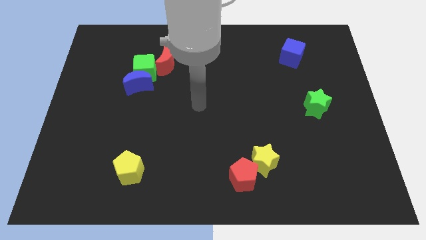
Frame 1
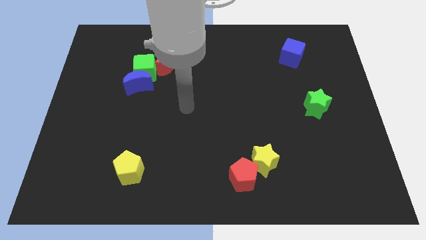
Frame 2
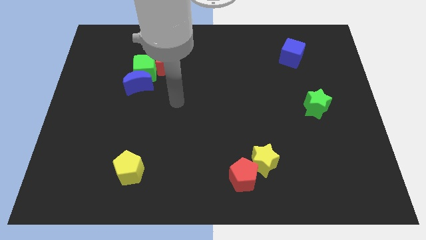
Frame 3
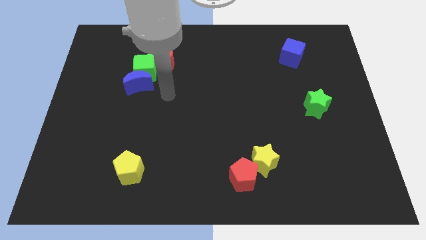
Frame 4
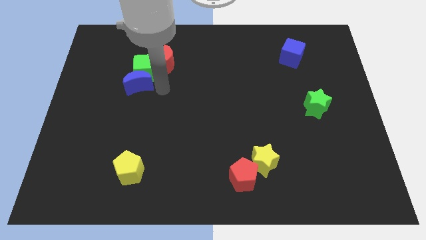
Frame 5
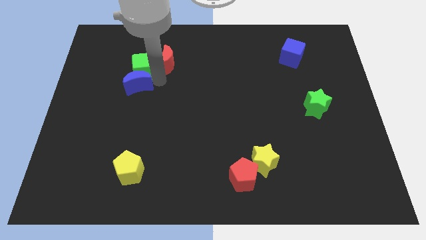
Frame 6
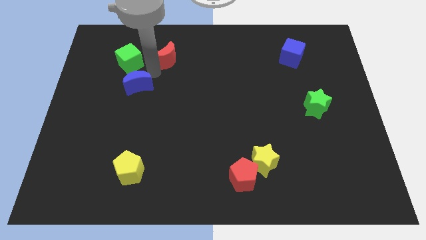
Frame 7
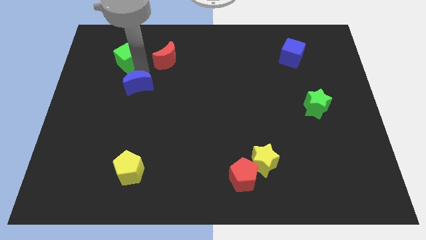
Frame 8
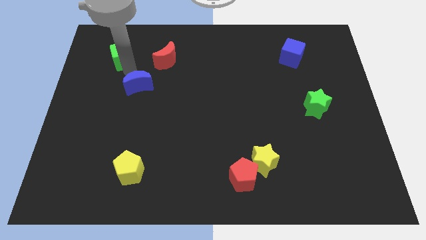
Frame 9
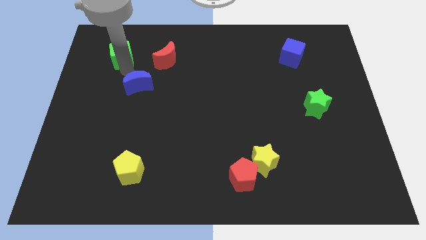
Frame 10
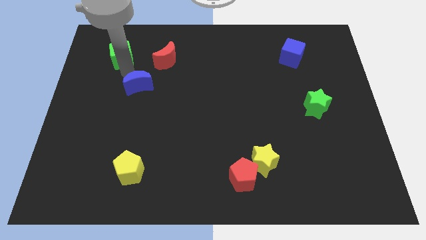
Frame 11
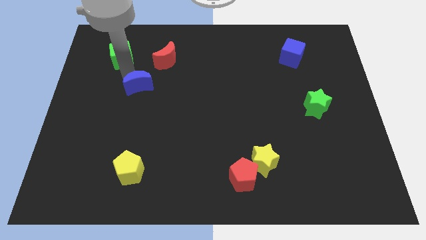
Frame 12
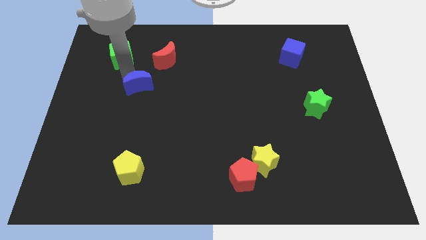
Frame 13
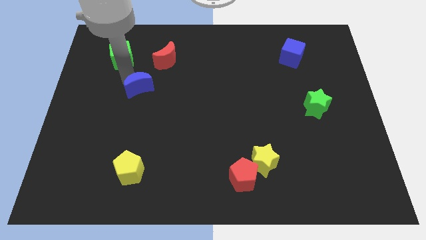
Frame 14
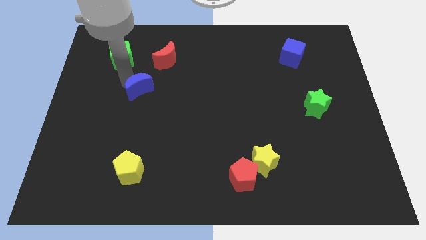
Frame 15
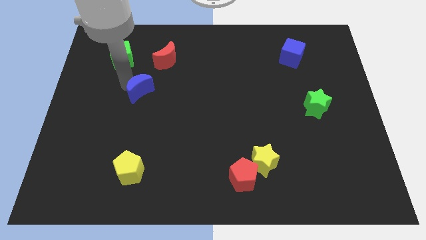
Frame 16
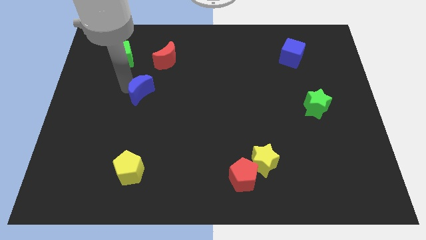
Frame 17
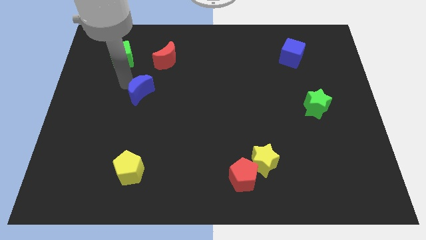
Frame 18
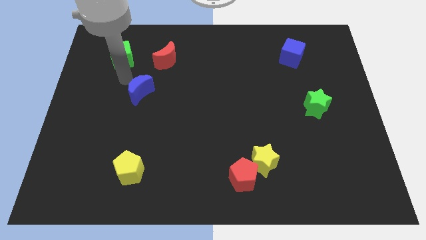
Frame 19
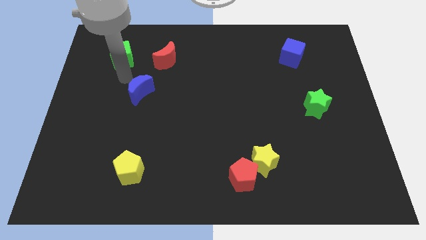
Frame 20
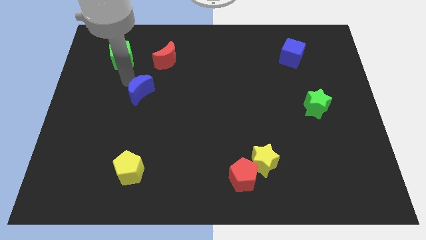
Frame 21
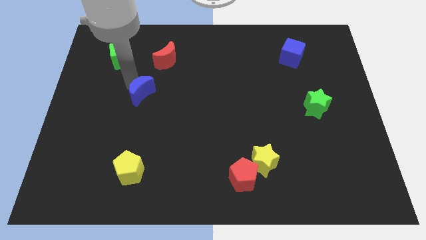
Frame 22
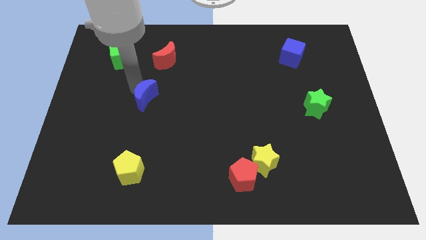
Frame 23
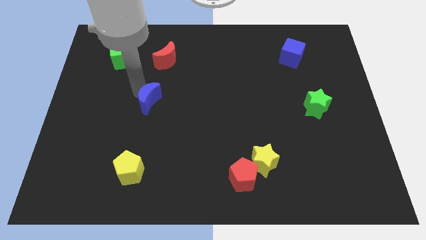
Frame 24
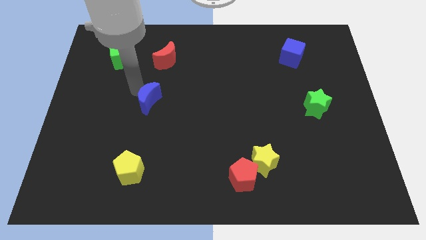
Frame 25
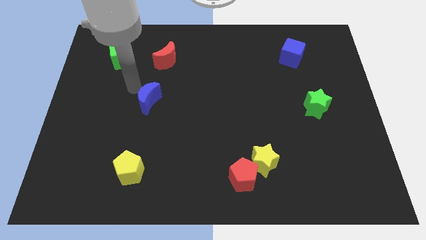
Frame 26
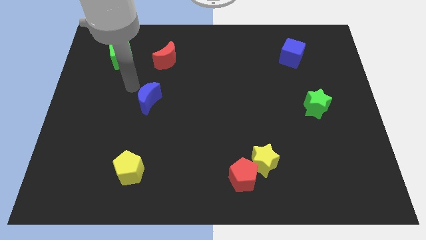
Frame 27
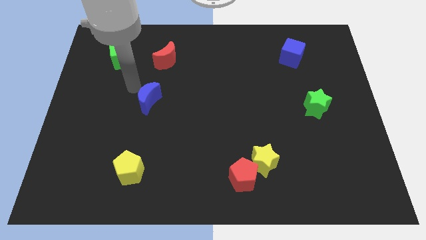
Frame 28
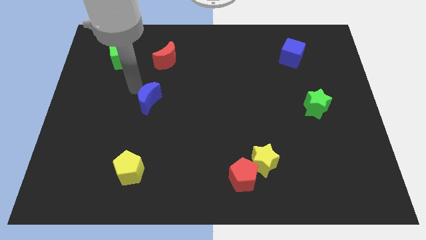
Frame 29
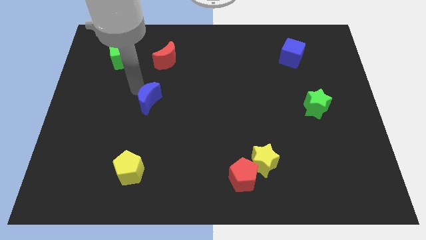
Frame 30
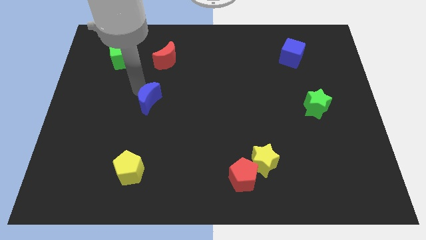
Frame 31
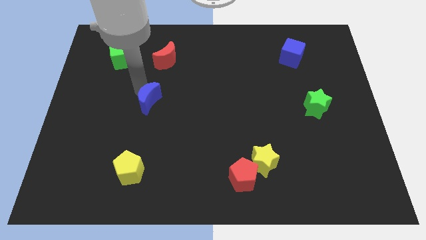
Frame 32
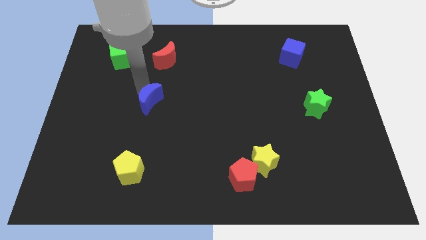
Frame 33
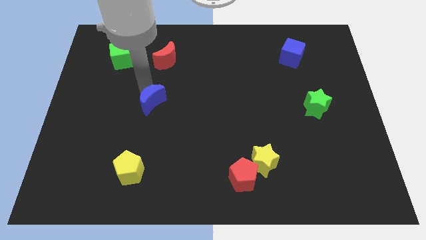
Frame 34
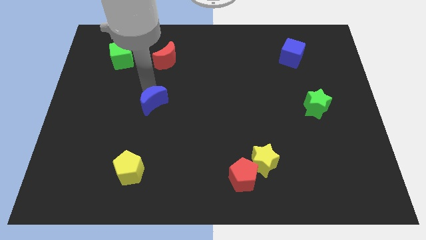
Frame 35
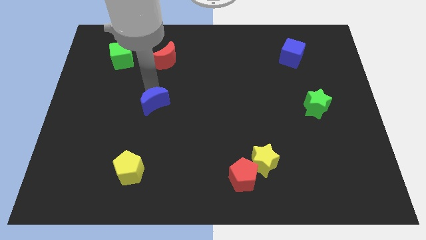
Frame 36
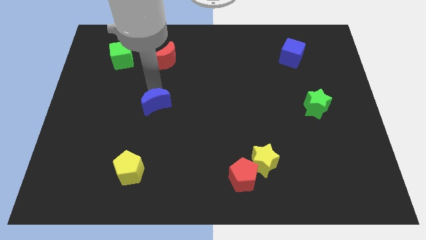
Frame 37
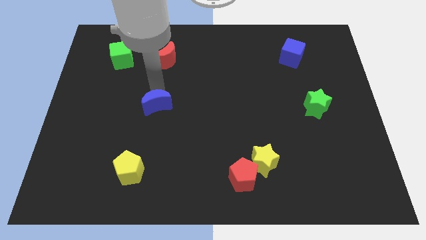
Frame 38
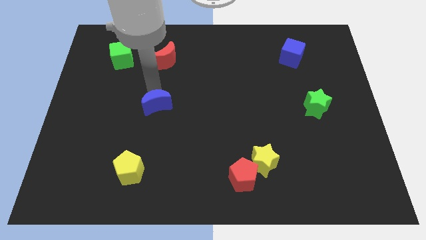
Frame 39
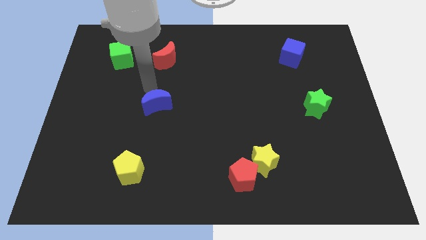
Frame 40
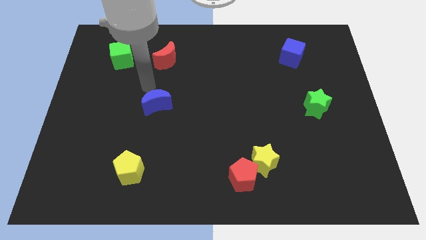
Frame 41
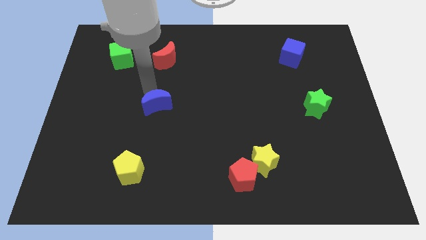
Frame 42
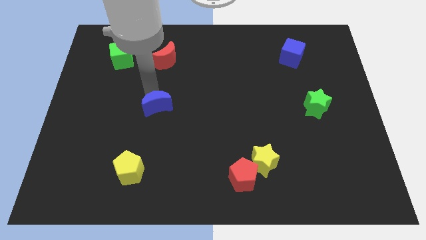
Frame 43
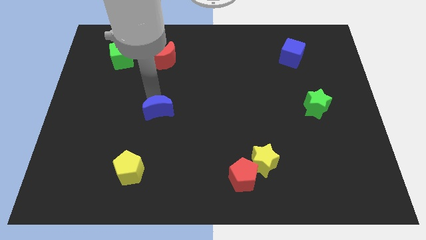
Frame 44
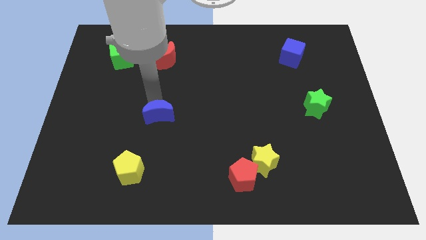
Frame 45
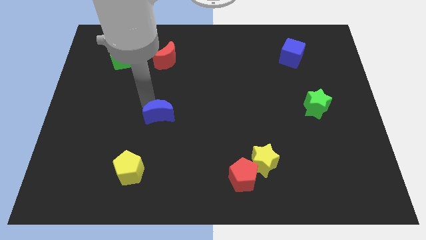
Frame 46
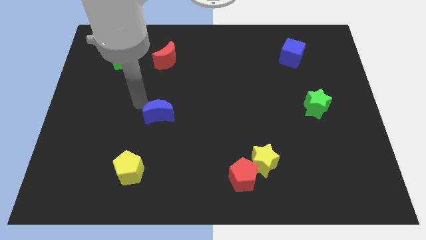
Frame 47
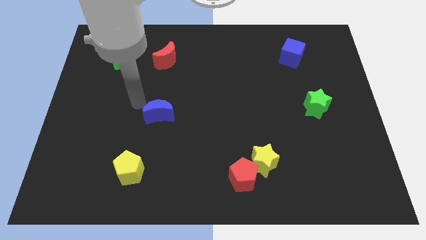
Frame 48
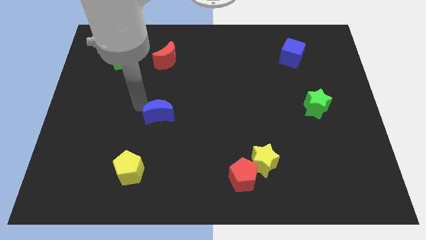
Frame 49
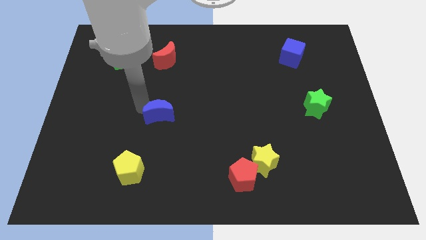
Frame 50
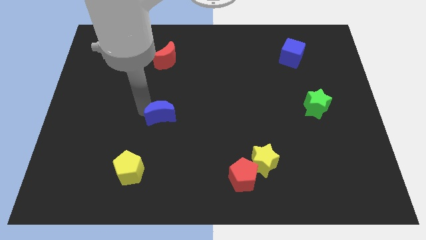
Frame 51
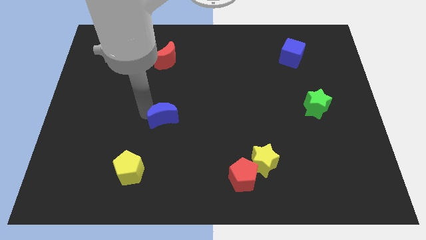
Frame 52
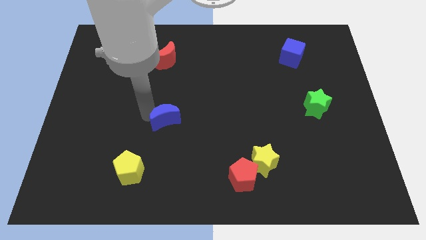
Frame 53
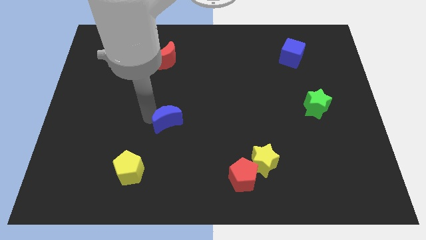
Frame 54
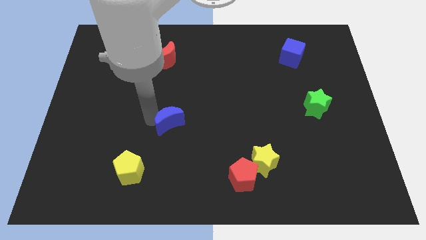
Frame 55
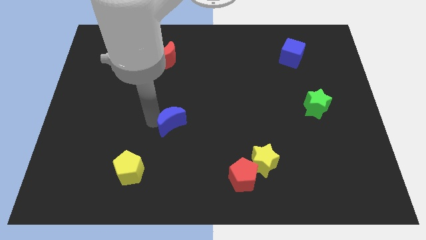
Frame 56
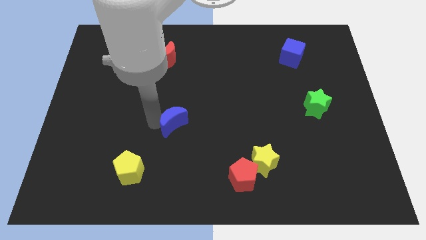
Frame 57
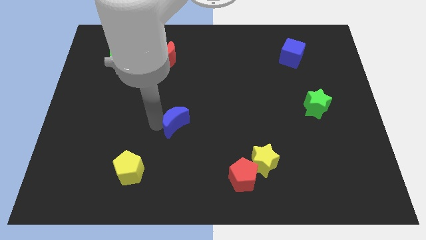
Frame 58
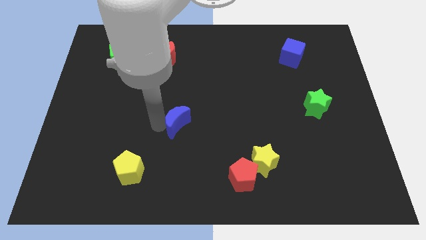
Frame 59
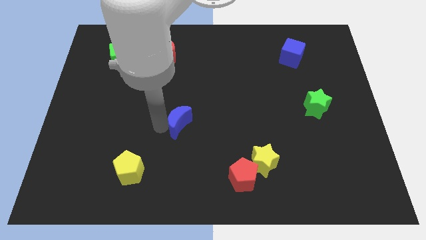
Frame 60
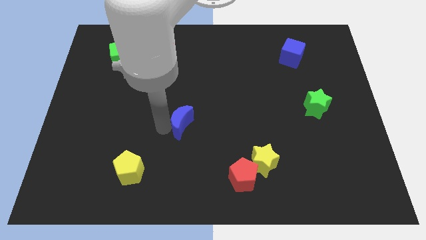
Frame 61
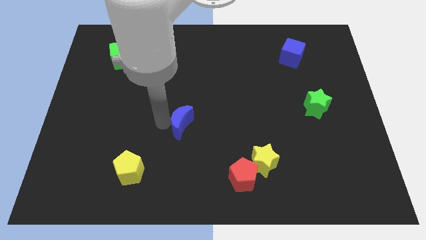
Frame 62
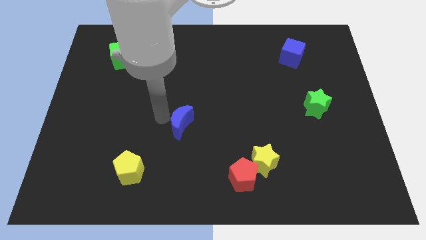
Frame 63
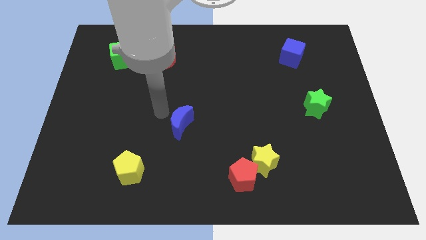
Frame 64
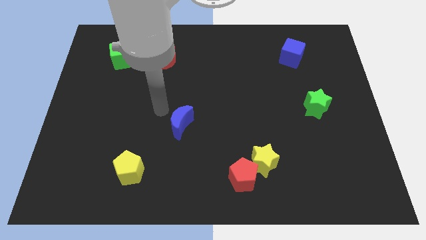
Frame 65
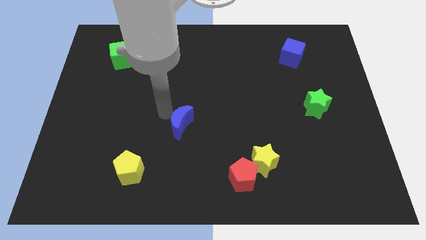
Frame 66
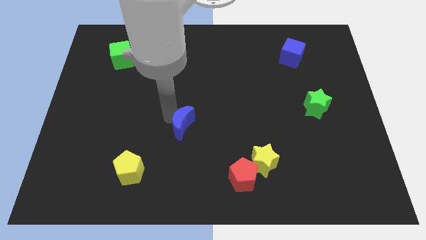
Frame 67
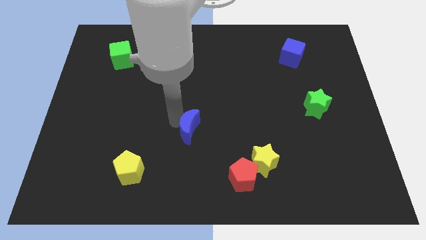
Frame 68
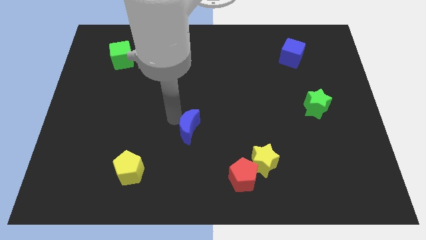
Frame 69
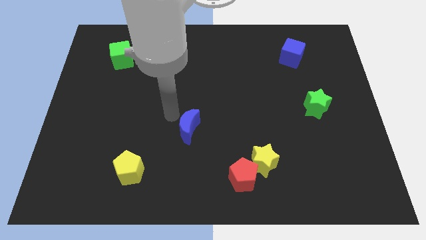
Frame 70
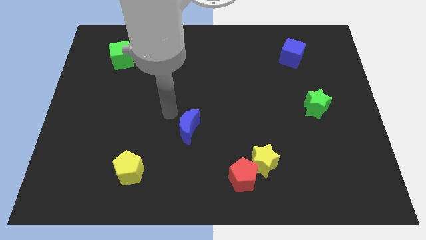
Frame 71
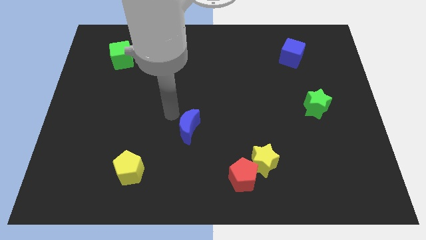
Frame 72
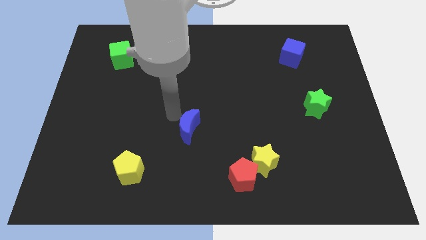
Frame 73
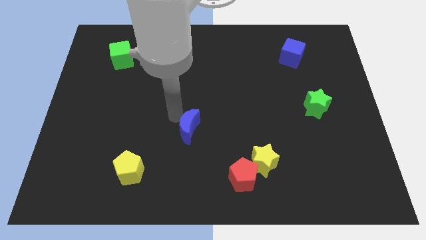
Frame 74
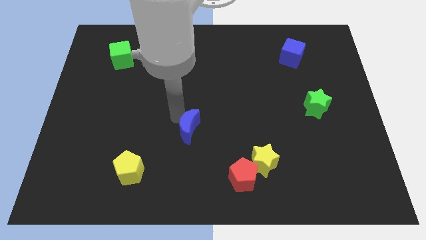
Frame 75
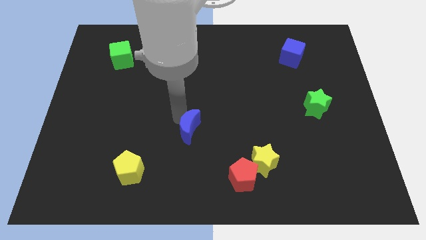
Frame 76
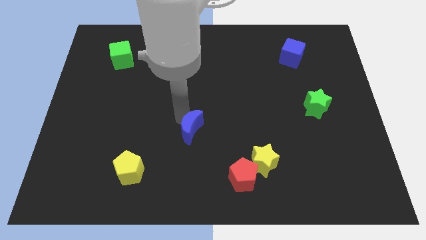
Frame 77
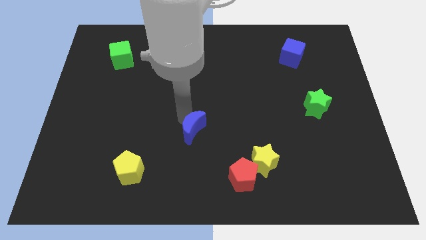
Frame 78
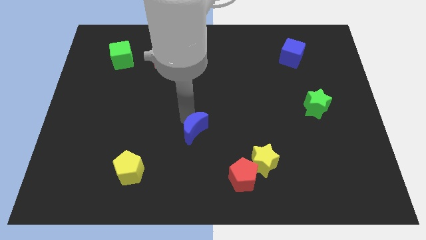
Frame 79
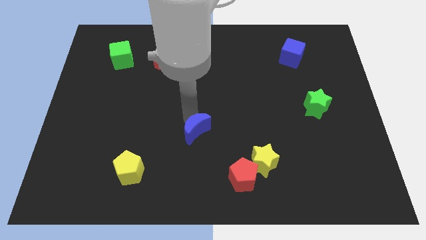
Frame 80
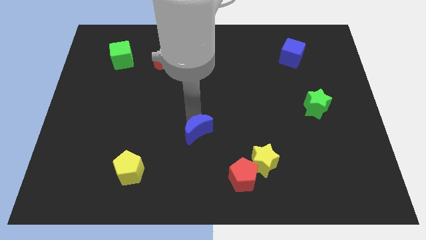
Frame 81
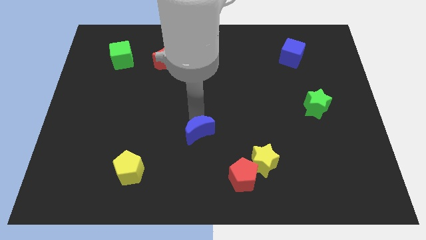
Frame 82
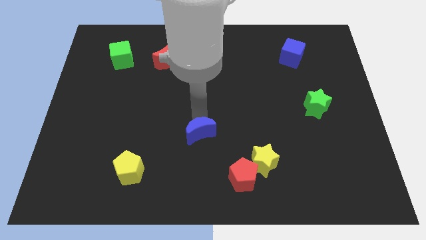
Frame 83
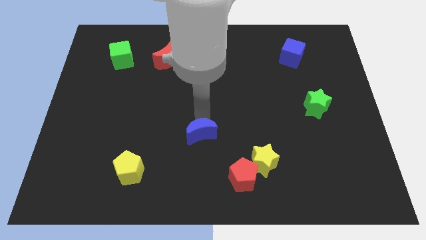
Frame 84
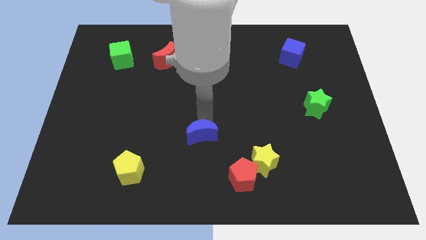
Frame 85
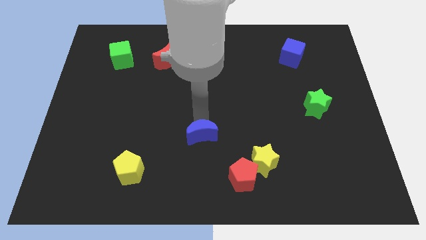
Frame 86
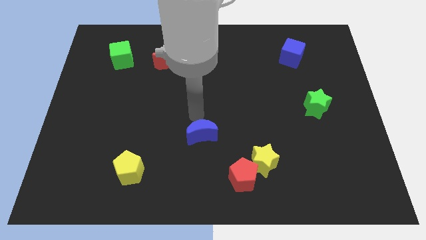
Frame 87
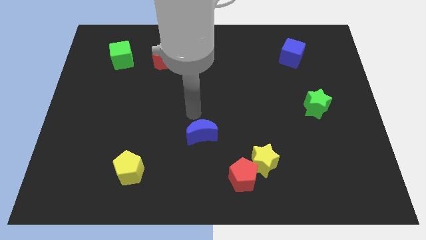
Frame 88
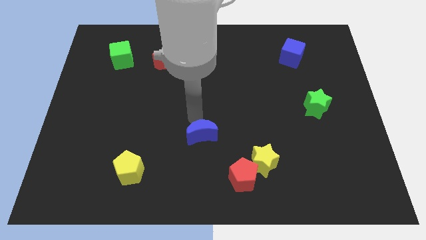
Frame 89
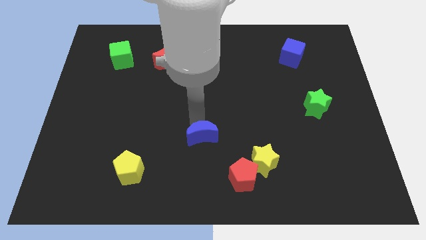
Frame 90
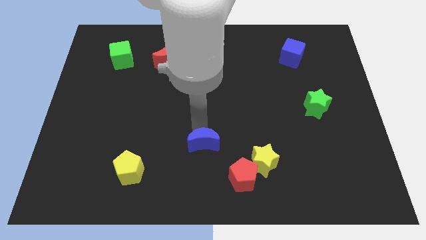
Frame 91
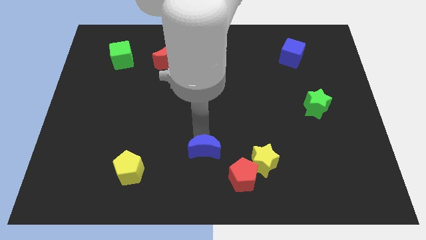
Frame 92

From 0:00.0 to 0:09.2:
push the blue moon left of the yellow star
